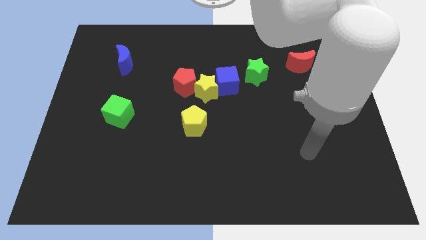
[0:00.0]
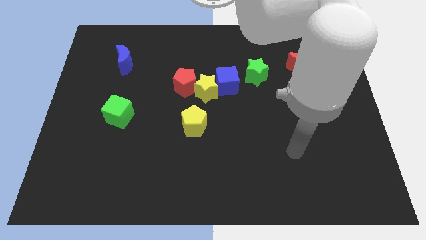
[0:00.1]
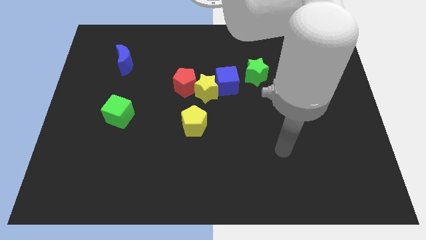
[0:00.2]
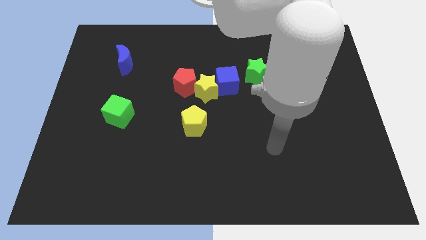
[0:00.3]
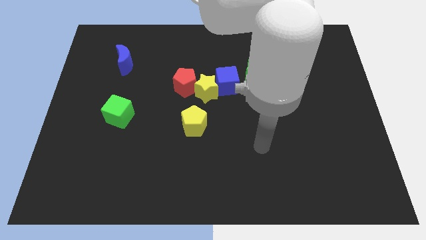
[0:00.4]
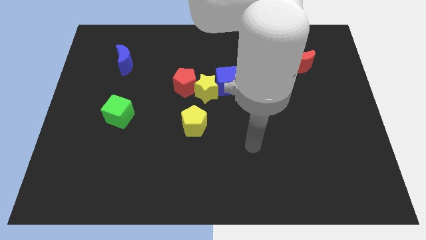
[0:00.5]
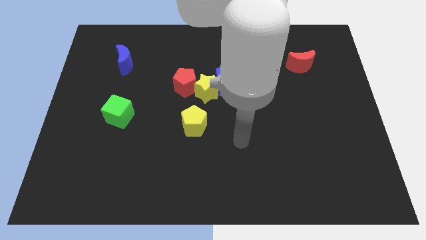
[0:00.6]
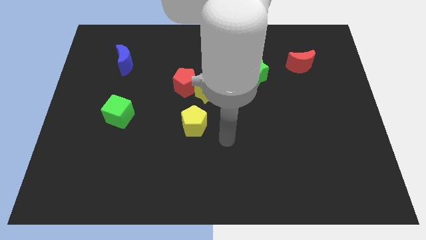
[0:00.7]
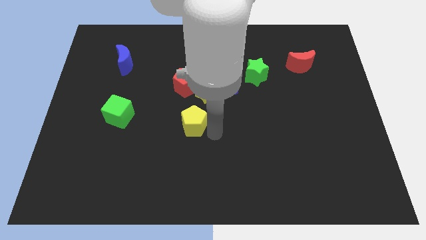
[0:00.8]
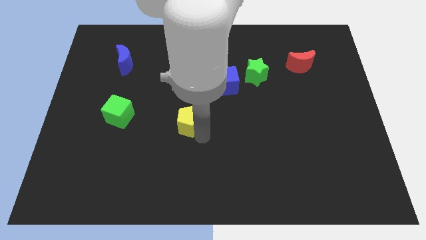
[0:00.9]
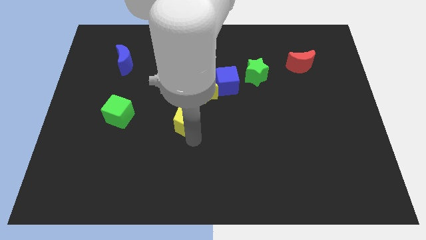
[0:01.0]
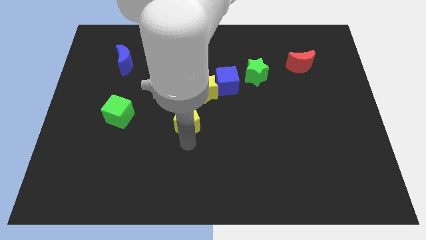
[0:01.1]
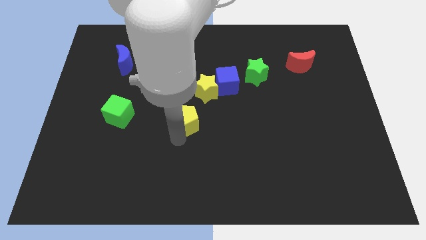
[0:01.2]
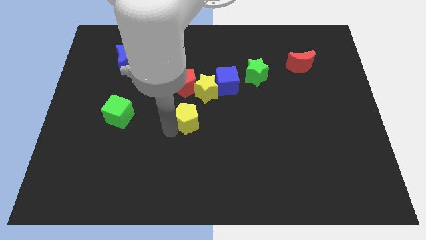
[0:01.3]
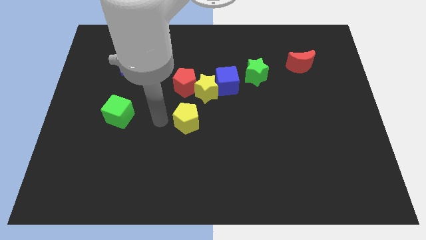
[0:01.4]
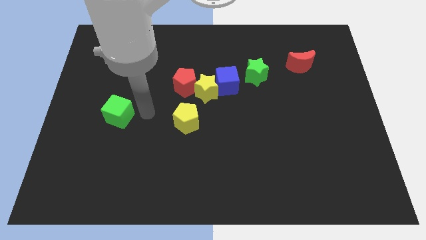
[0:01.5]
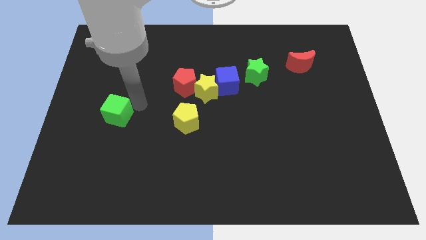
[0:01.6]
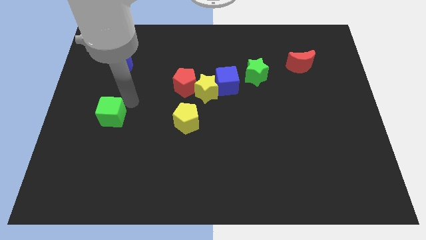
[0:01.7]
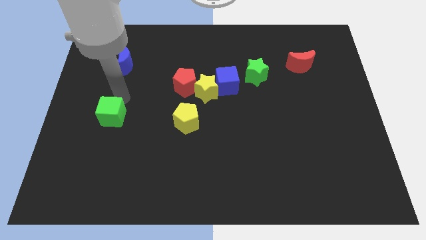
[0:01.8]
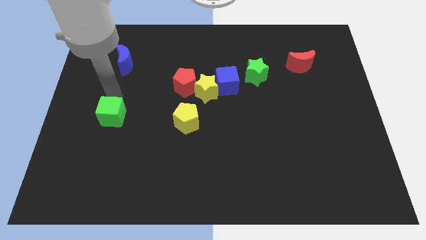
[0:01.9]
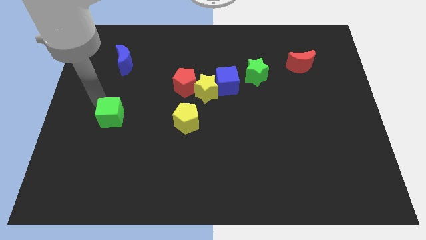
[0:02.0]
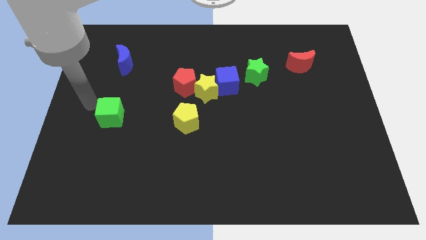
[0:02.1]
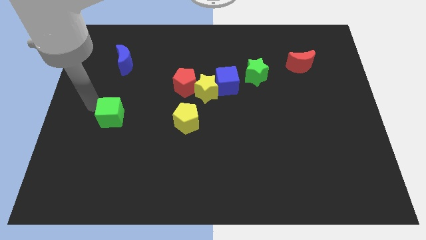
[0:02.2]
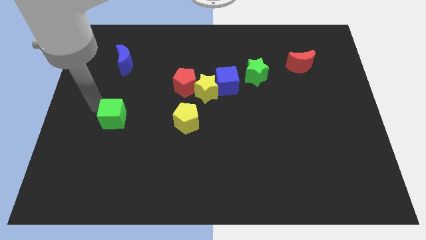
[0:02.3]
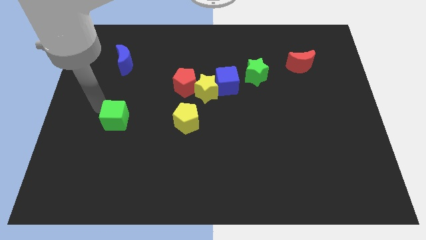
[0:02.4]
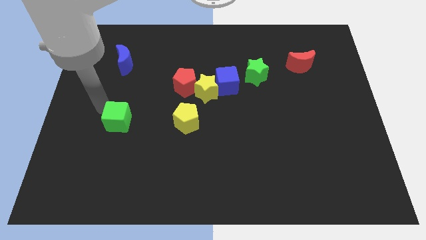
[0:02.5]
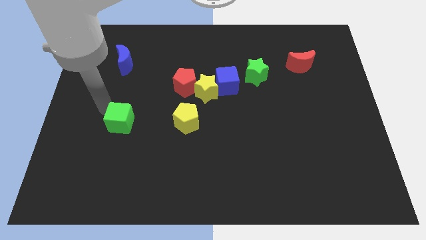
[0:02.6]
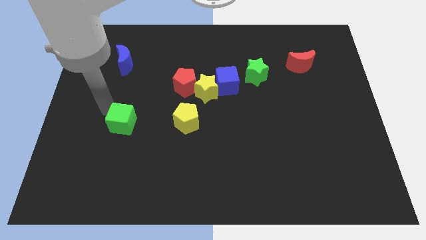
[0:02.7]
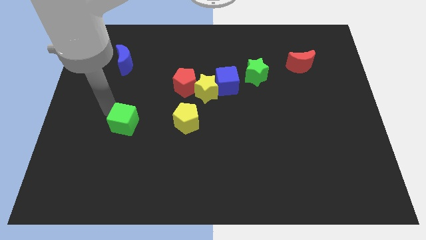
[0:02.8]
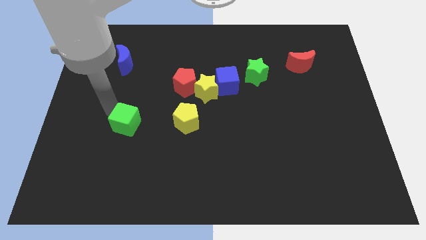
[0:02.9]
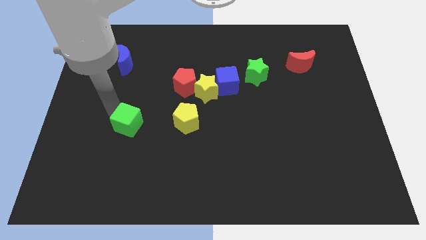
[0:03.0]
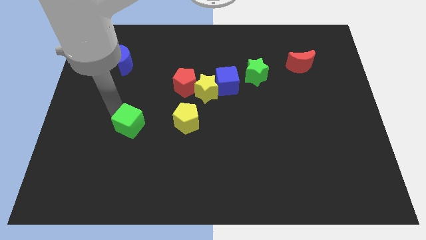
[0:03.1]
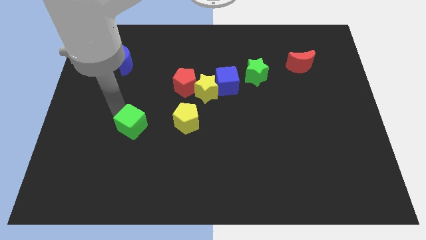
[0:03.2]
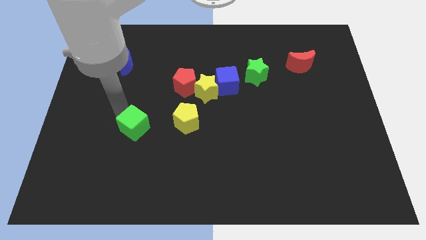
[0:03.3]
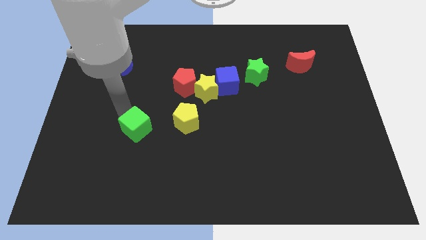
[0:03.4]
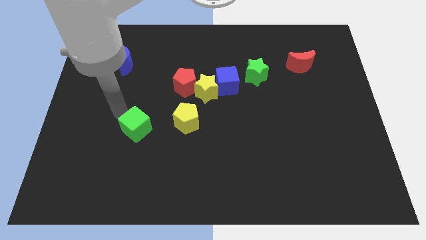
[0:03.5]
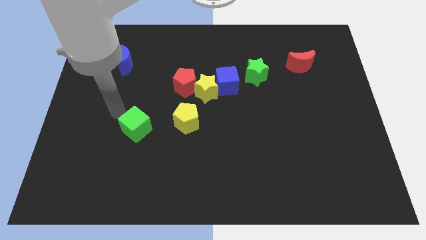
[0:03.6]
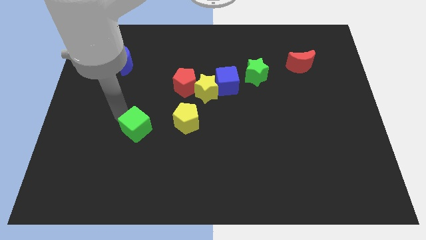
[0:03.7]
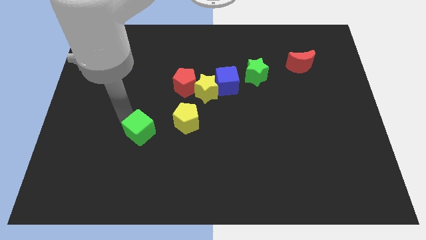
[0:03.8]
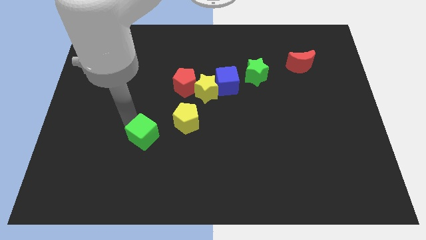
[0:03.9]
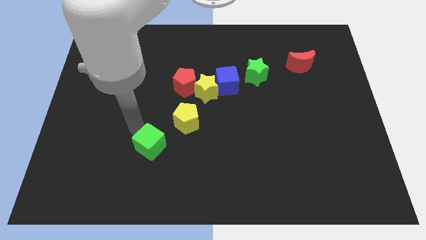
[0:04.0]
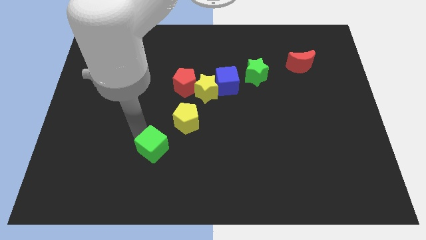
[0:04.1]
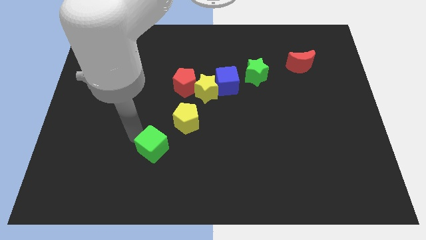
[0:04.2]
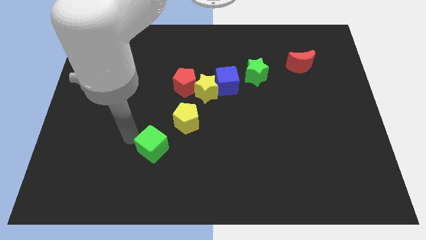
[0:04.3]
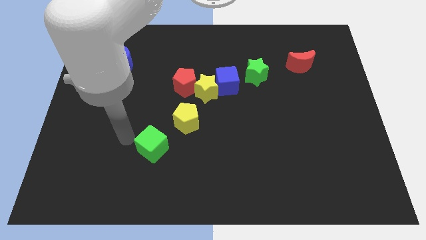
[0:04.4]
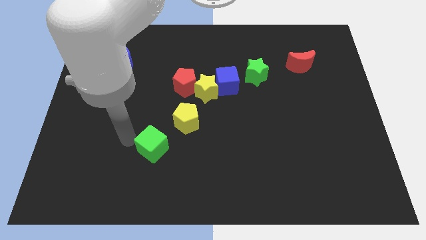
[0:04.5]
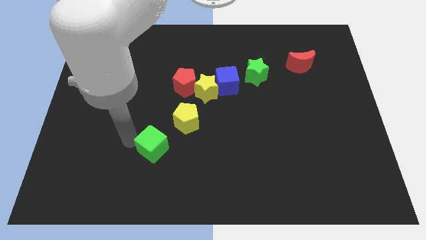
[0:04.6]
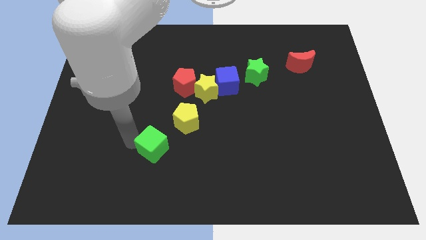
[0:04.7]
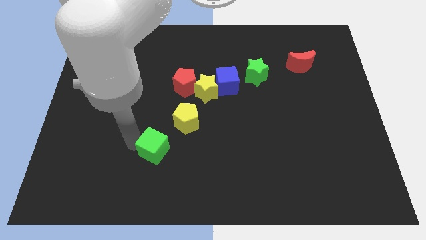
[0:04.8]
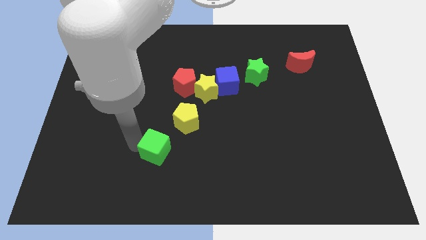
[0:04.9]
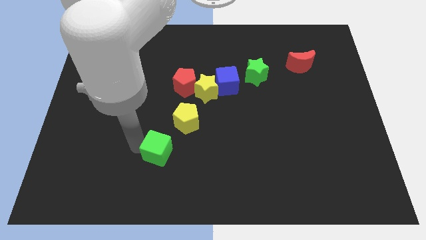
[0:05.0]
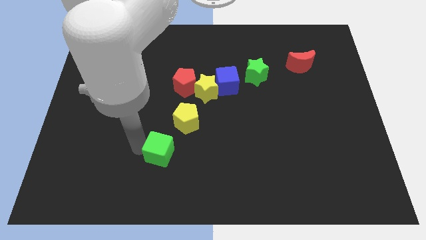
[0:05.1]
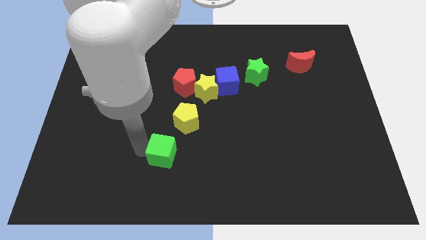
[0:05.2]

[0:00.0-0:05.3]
put the green cube to the bottom of the yellow pentagon

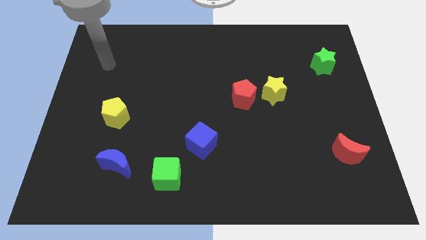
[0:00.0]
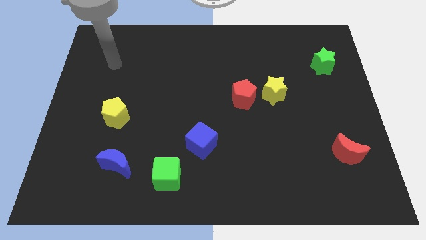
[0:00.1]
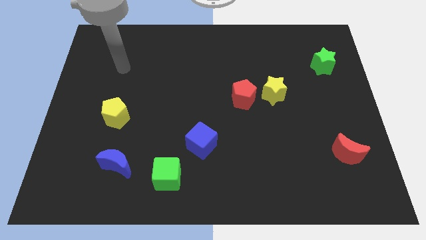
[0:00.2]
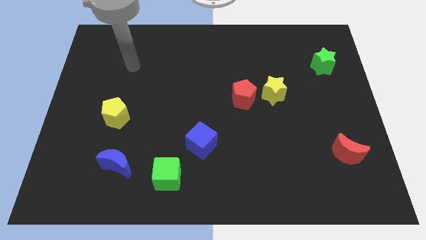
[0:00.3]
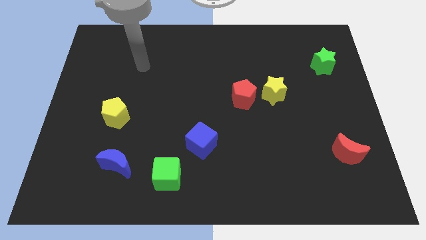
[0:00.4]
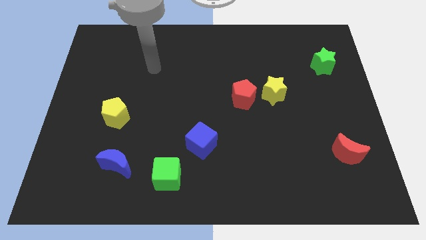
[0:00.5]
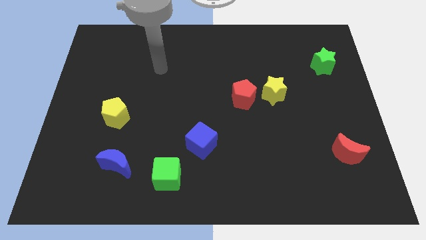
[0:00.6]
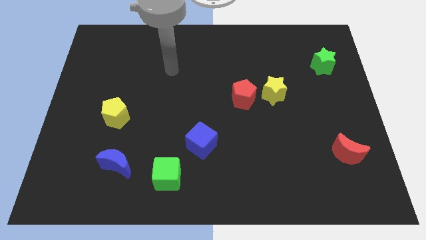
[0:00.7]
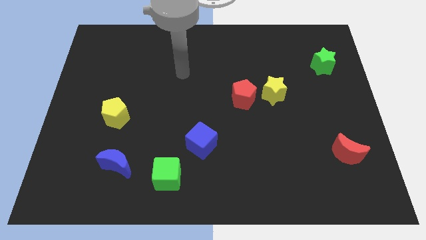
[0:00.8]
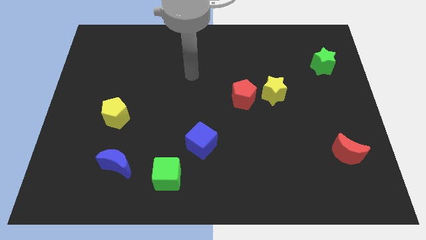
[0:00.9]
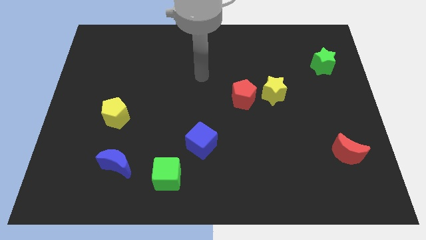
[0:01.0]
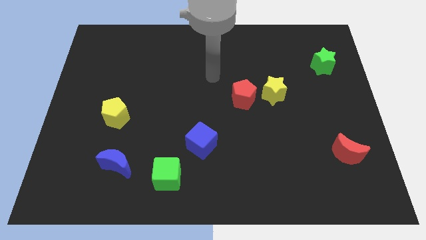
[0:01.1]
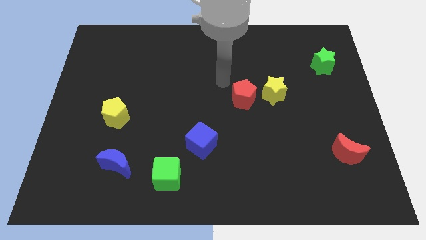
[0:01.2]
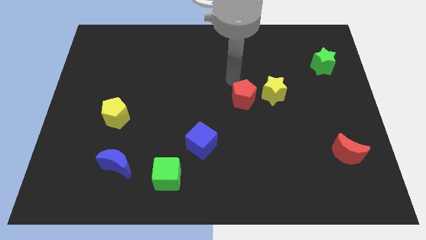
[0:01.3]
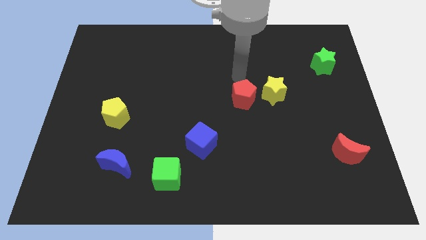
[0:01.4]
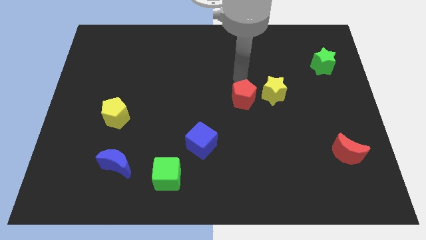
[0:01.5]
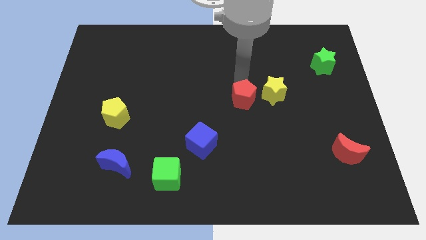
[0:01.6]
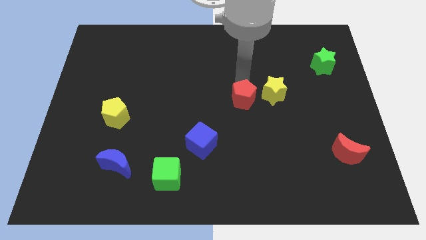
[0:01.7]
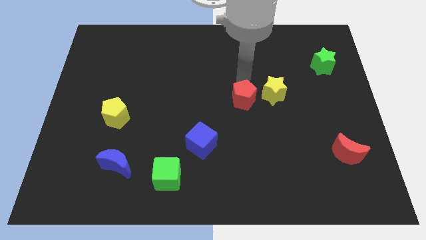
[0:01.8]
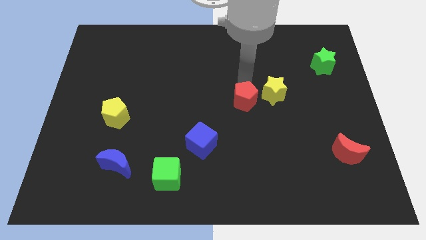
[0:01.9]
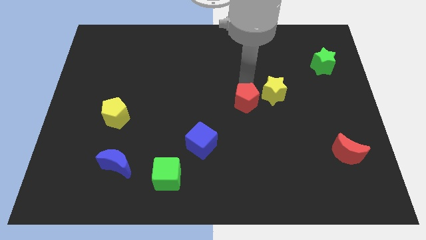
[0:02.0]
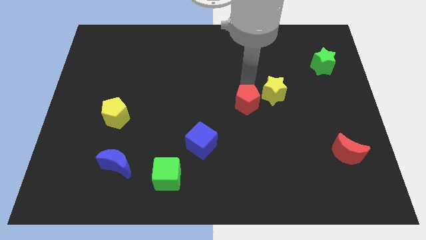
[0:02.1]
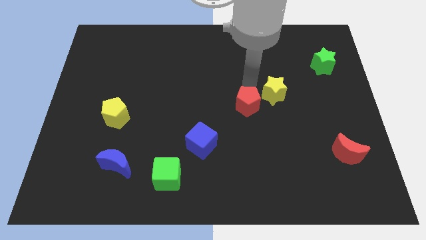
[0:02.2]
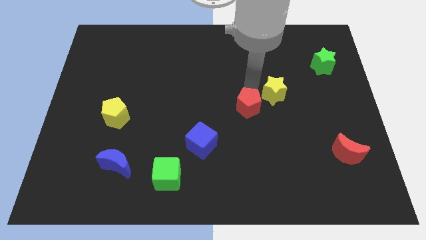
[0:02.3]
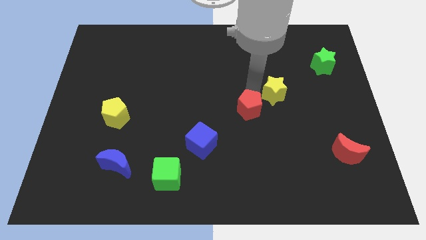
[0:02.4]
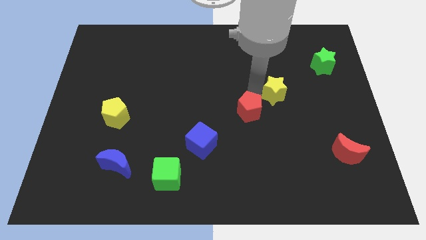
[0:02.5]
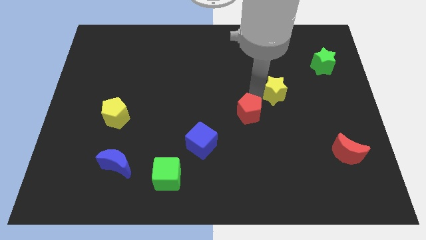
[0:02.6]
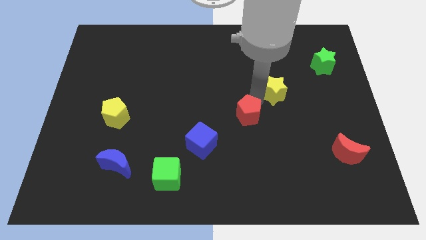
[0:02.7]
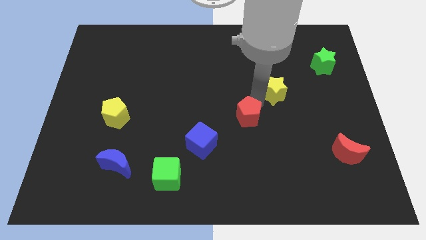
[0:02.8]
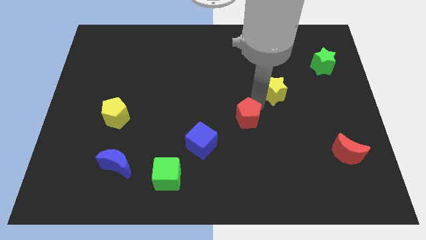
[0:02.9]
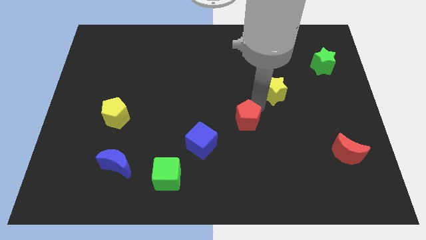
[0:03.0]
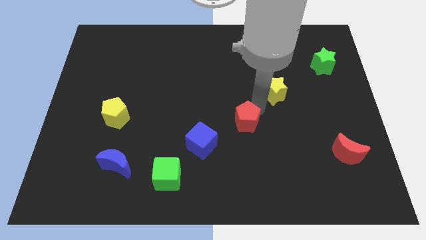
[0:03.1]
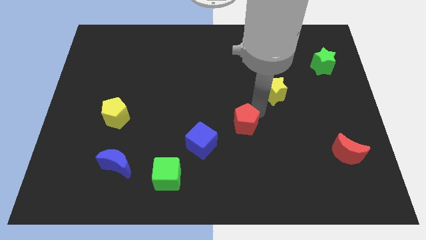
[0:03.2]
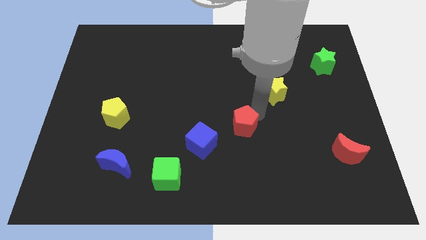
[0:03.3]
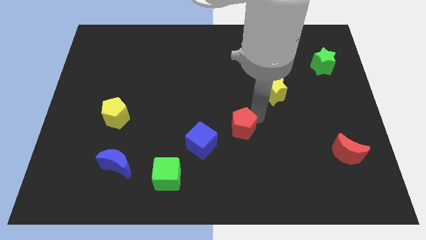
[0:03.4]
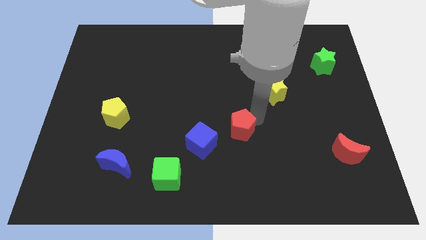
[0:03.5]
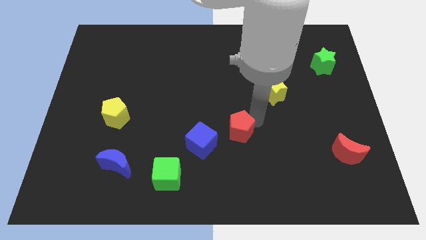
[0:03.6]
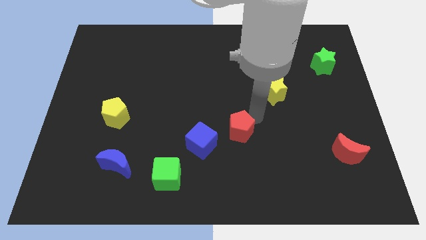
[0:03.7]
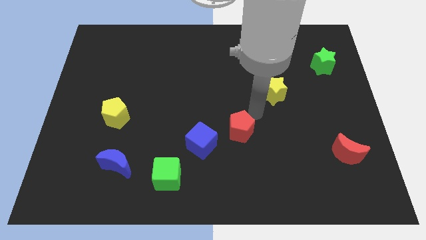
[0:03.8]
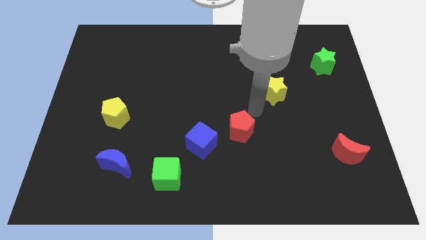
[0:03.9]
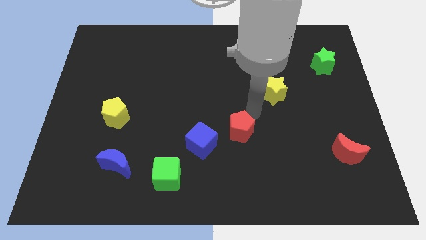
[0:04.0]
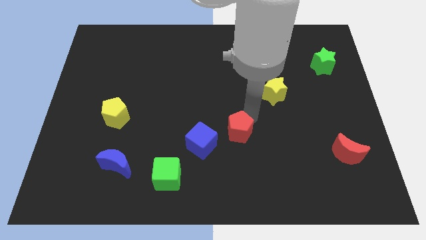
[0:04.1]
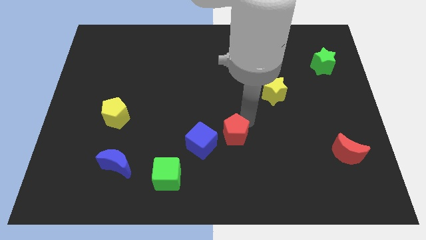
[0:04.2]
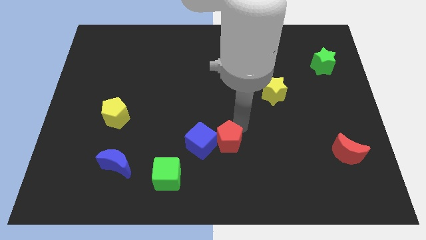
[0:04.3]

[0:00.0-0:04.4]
push the red pentagon to the bottom right side of the blue cube
